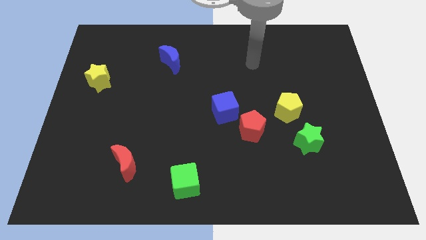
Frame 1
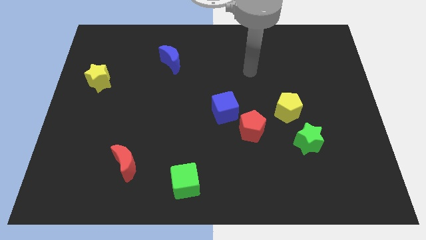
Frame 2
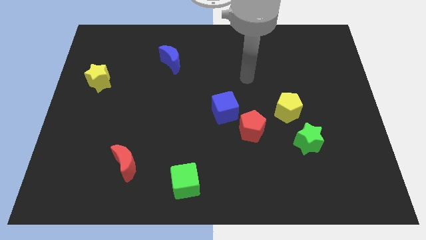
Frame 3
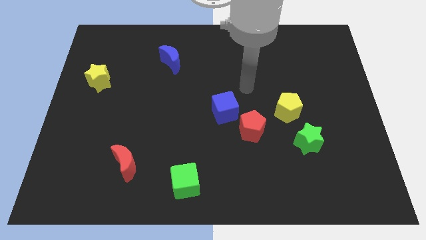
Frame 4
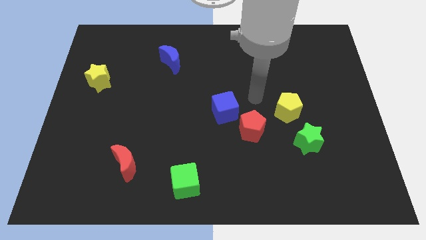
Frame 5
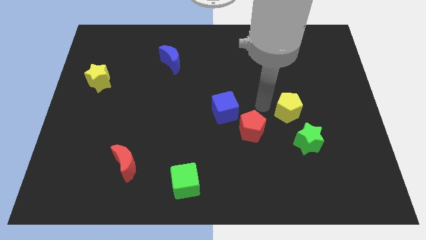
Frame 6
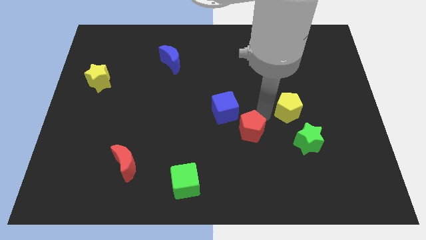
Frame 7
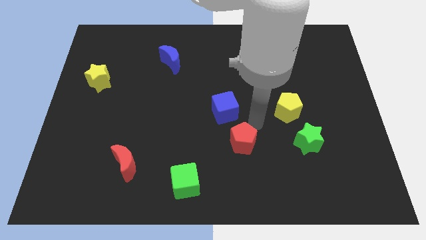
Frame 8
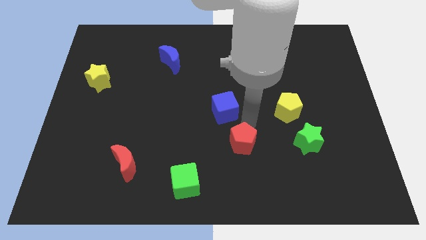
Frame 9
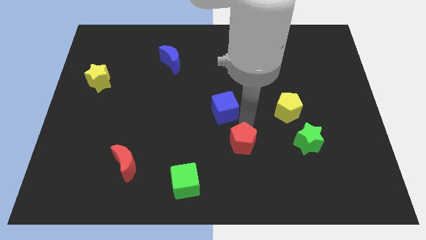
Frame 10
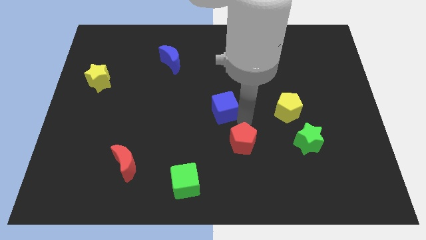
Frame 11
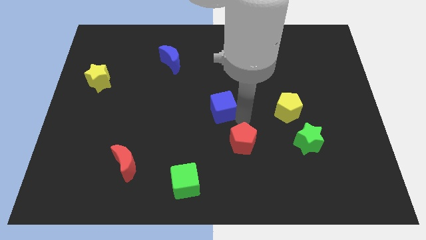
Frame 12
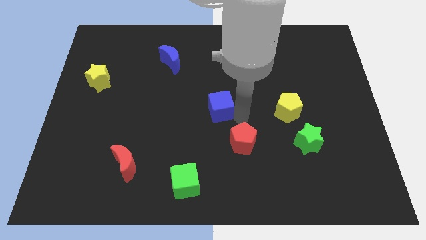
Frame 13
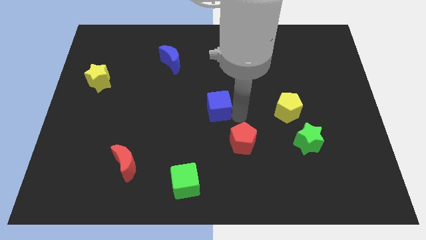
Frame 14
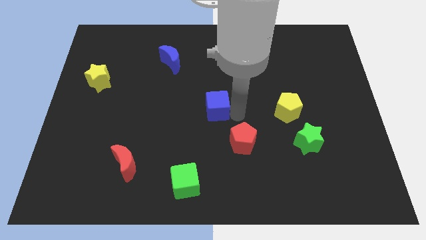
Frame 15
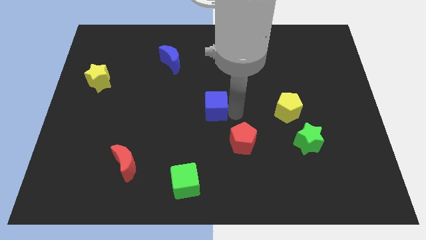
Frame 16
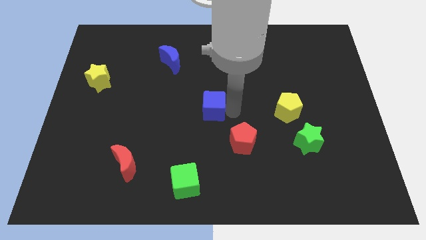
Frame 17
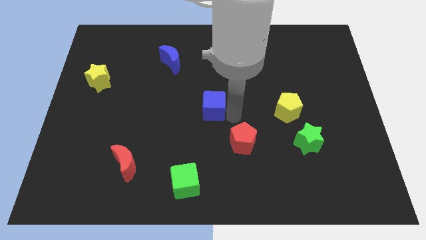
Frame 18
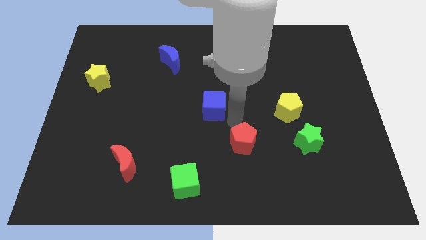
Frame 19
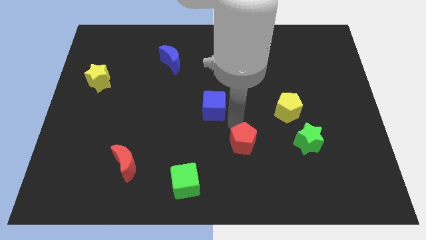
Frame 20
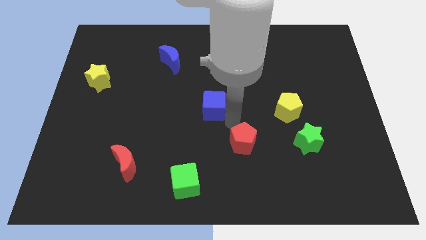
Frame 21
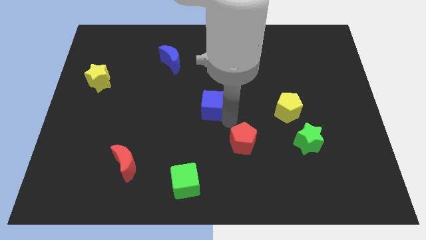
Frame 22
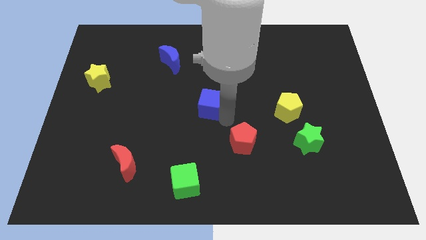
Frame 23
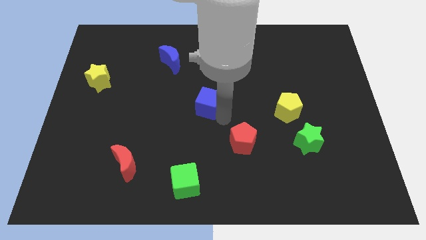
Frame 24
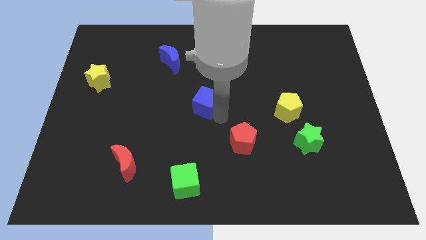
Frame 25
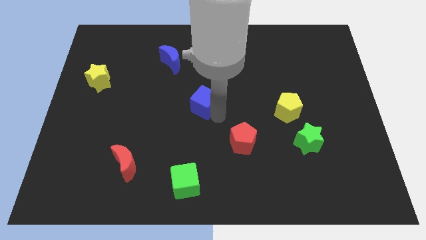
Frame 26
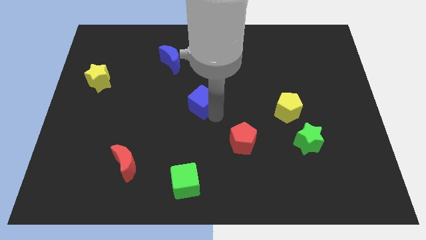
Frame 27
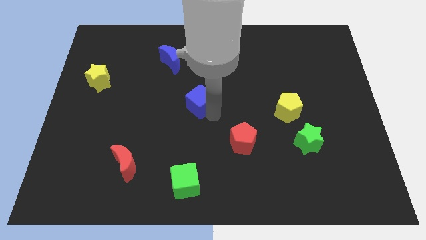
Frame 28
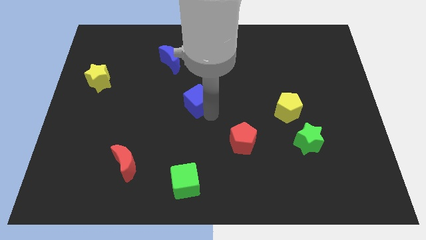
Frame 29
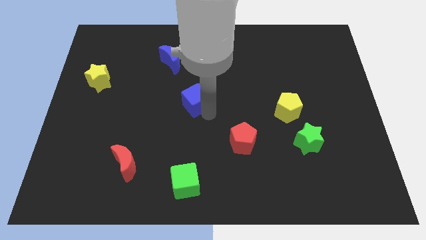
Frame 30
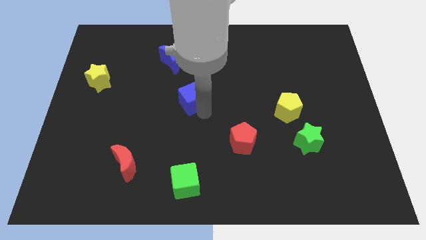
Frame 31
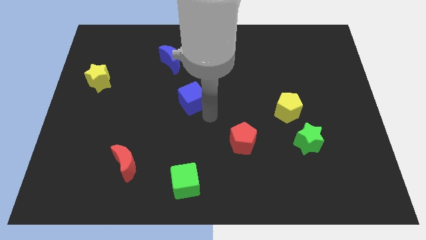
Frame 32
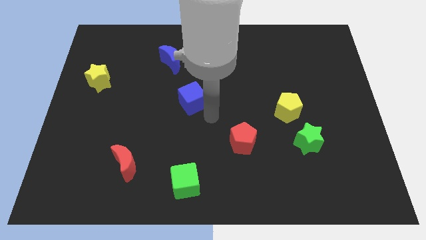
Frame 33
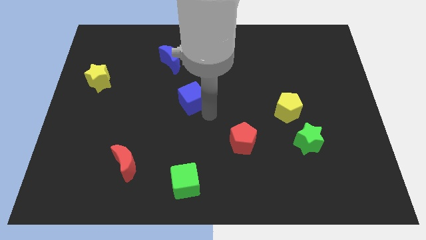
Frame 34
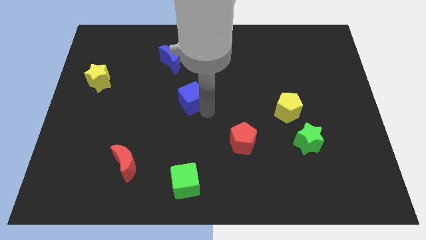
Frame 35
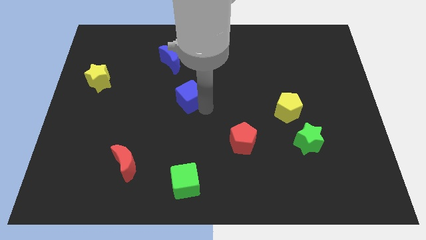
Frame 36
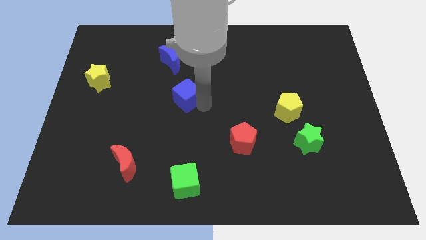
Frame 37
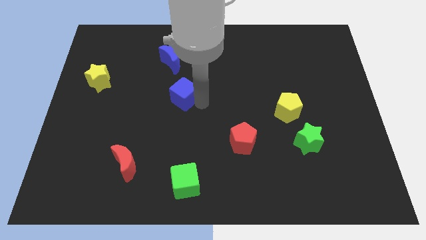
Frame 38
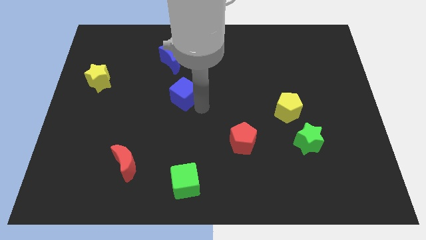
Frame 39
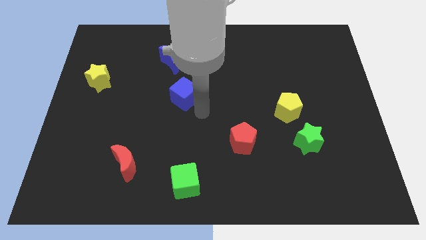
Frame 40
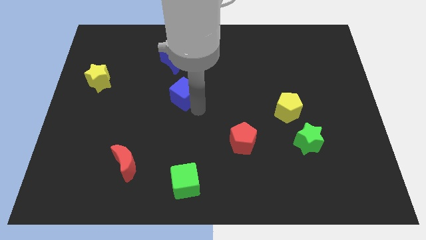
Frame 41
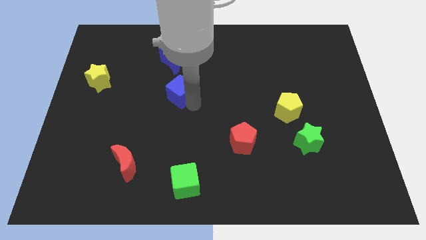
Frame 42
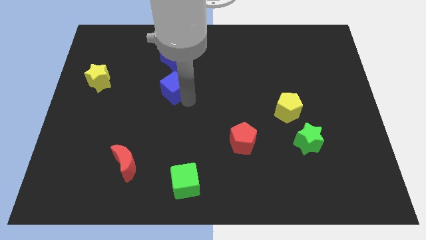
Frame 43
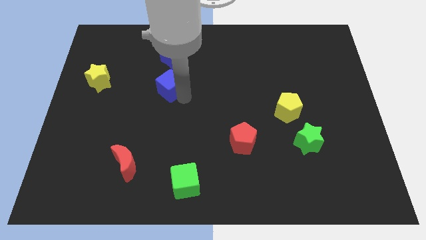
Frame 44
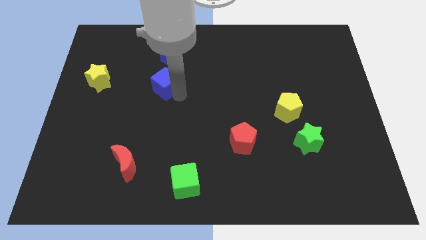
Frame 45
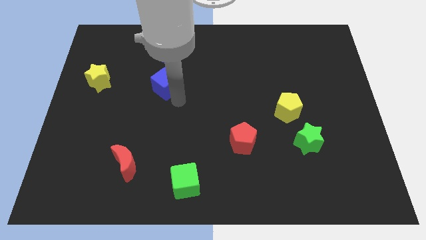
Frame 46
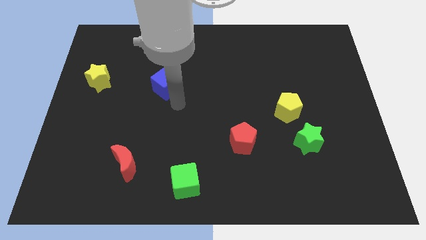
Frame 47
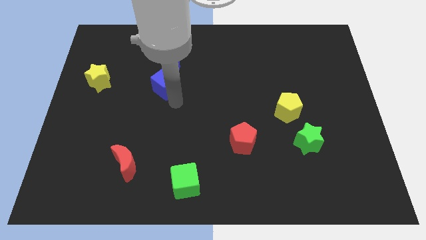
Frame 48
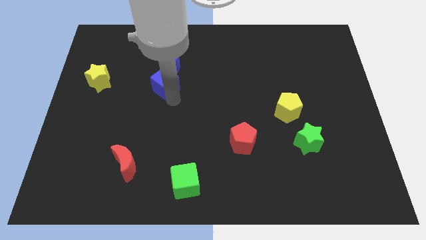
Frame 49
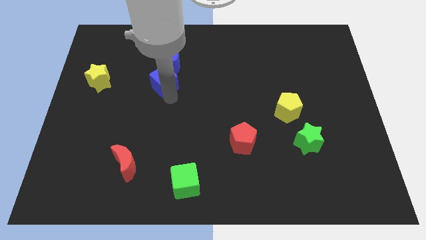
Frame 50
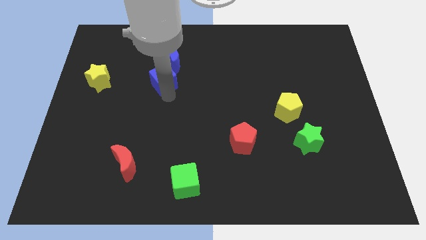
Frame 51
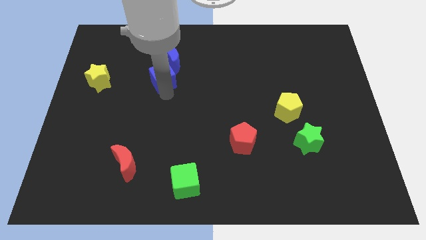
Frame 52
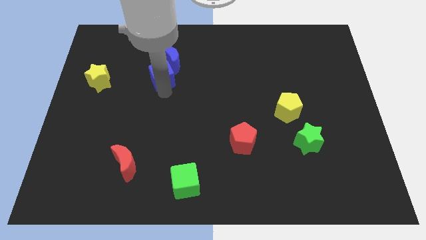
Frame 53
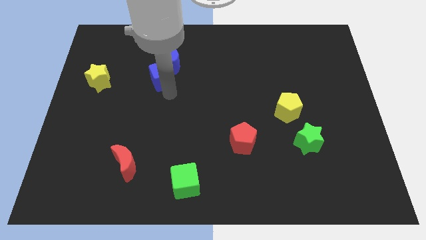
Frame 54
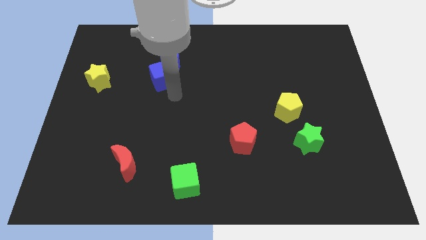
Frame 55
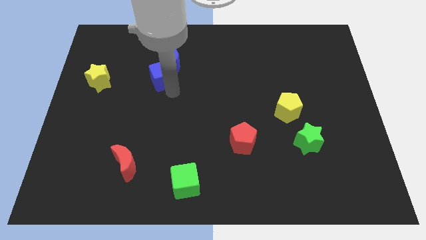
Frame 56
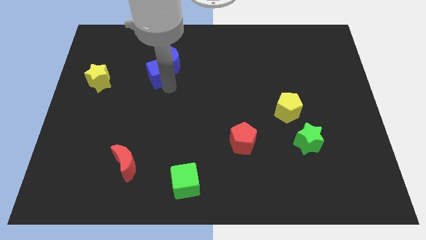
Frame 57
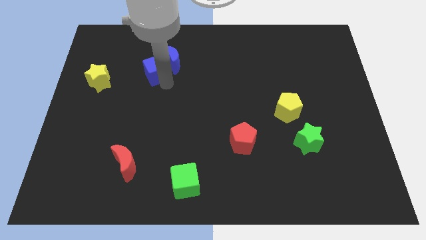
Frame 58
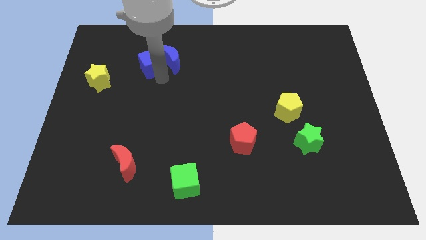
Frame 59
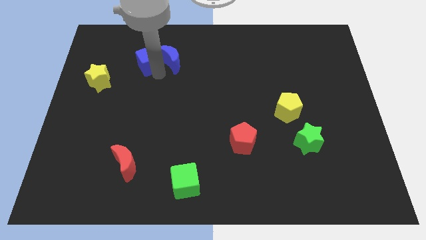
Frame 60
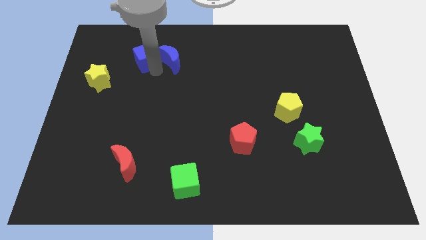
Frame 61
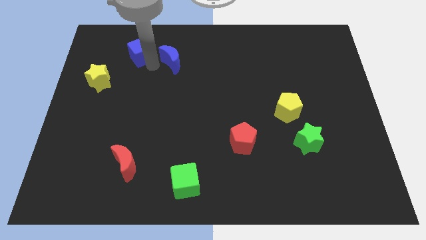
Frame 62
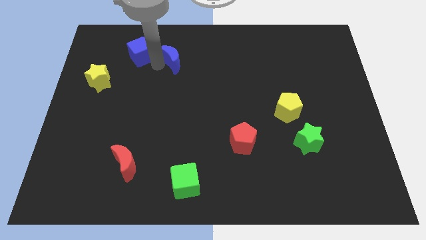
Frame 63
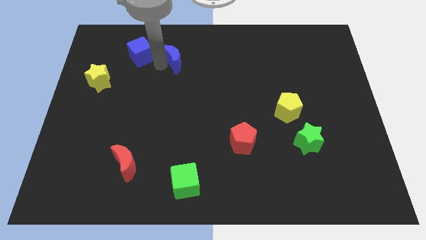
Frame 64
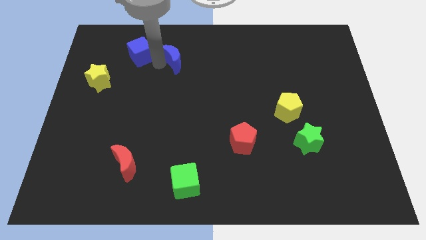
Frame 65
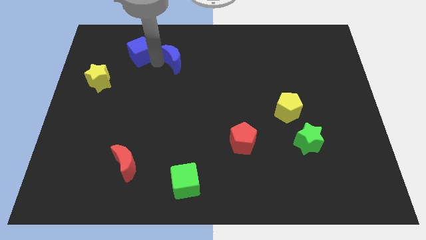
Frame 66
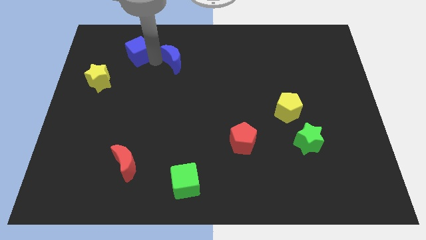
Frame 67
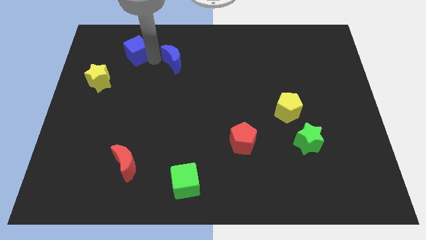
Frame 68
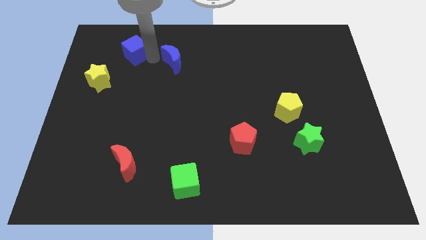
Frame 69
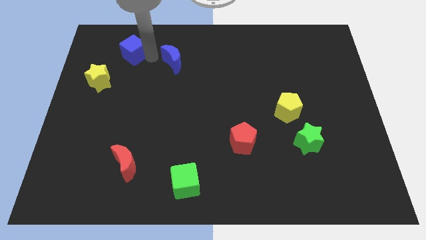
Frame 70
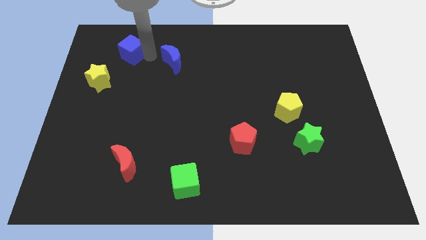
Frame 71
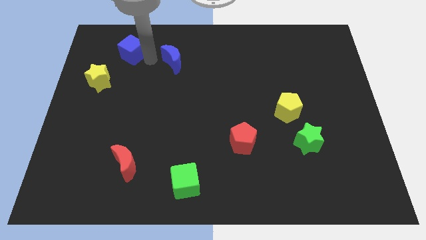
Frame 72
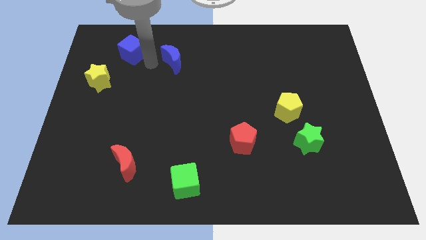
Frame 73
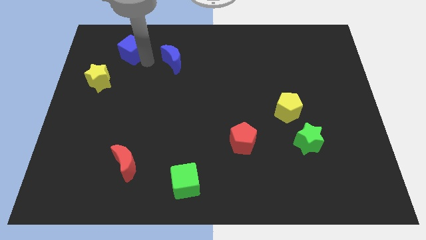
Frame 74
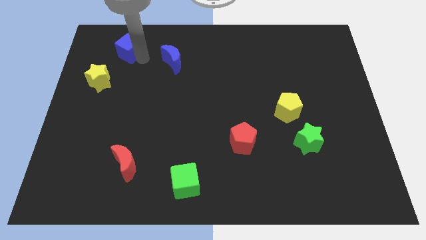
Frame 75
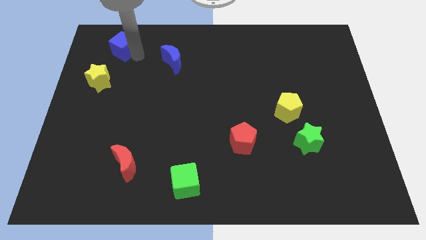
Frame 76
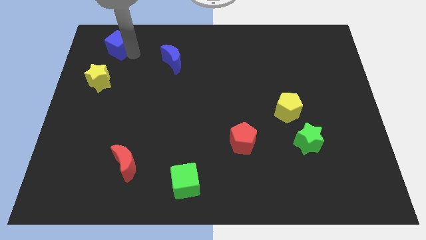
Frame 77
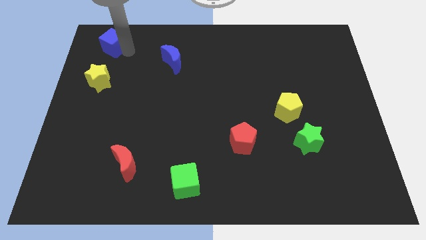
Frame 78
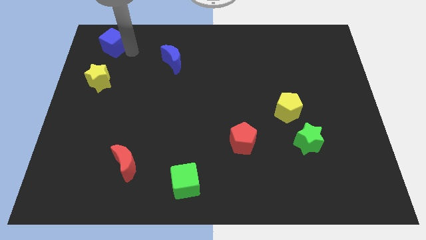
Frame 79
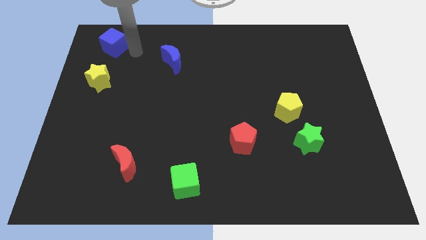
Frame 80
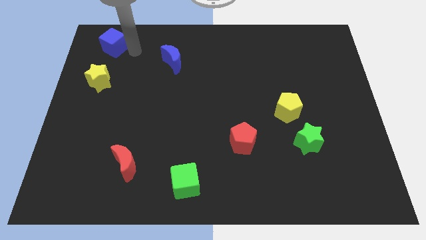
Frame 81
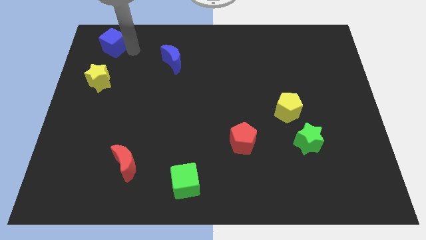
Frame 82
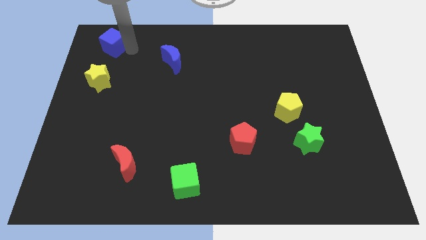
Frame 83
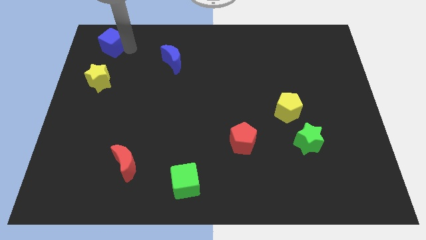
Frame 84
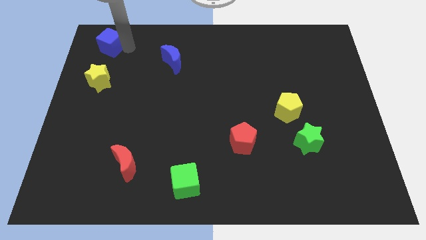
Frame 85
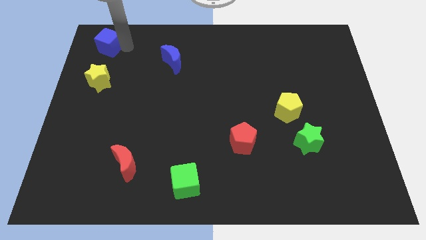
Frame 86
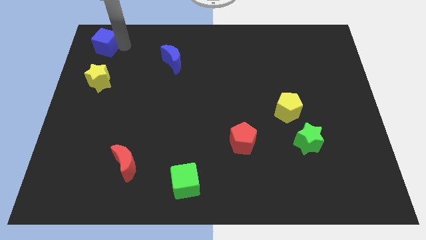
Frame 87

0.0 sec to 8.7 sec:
push the blue cube to the top left of the board
